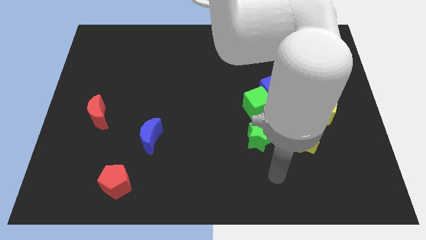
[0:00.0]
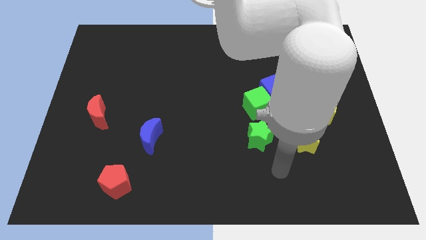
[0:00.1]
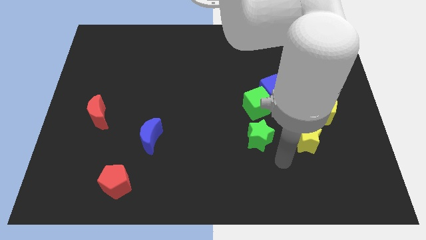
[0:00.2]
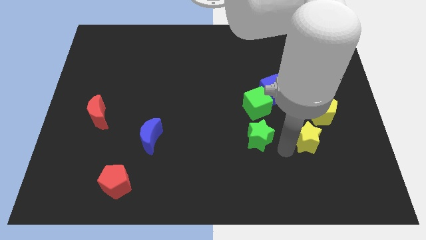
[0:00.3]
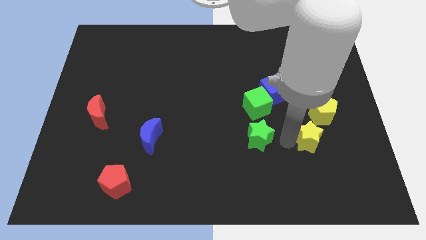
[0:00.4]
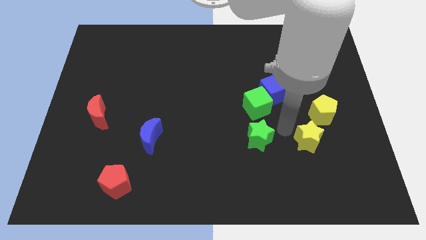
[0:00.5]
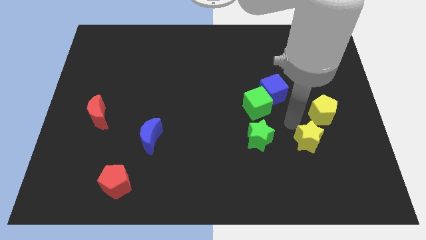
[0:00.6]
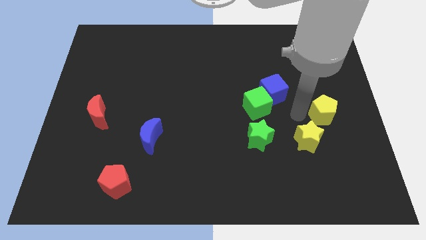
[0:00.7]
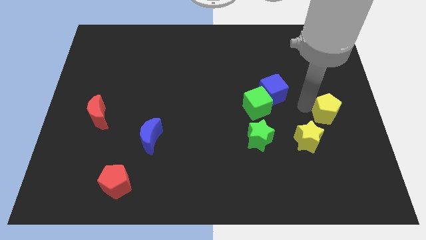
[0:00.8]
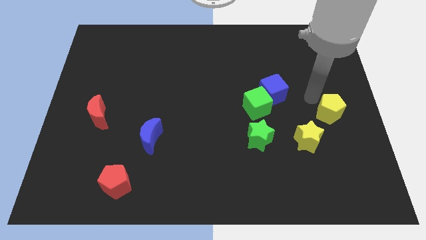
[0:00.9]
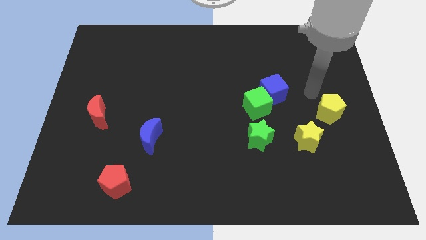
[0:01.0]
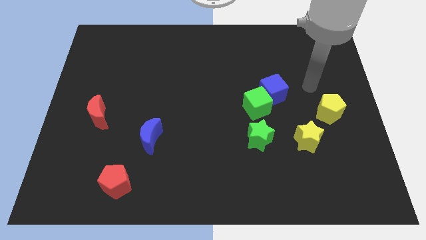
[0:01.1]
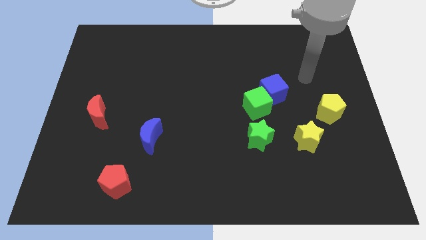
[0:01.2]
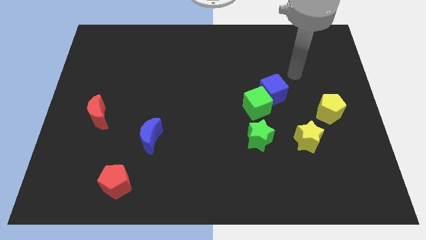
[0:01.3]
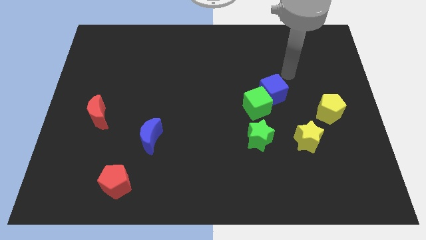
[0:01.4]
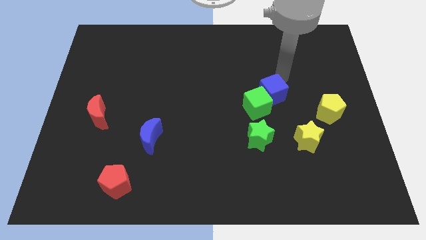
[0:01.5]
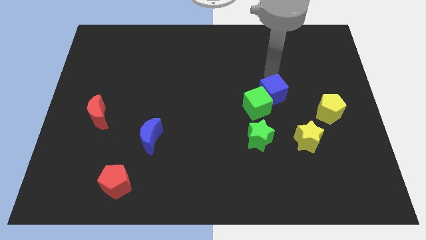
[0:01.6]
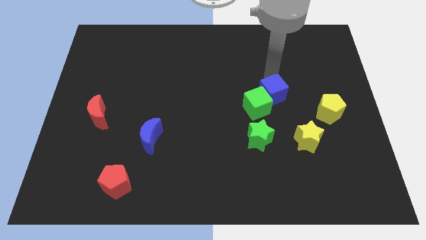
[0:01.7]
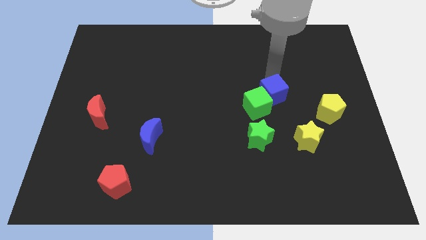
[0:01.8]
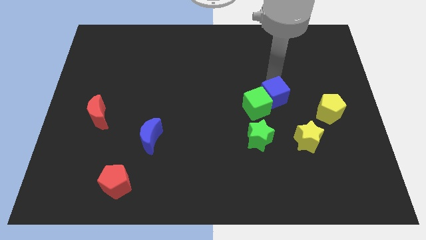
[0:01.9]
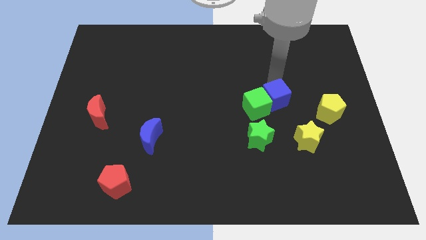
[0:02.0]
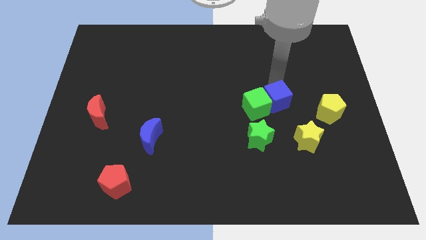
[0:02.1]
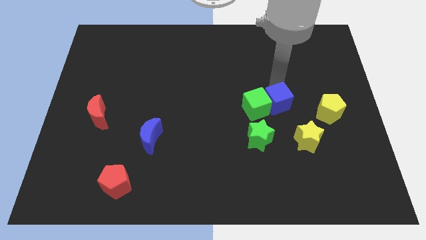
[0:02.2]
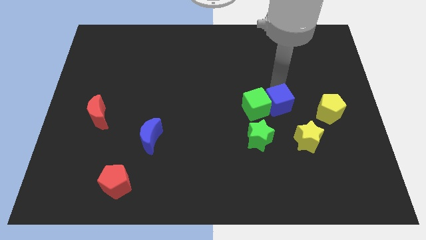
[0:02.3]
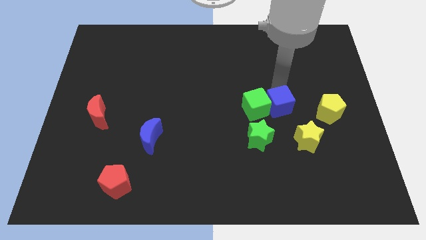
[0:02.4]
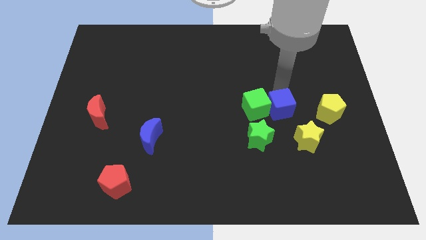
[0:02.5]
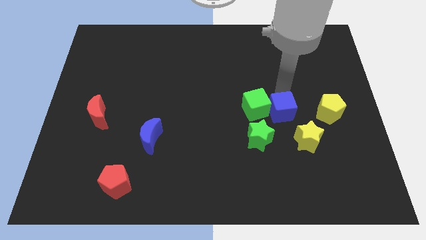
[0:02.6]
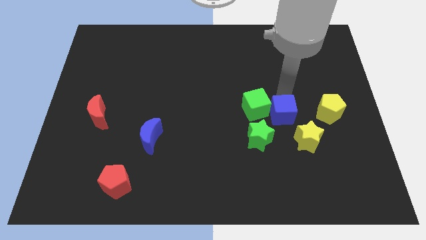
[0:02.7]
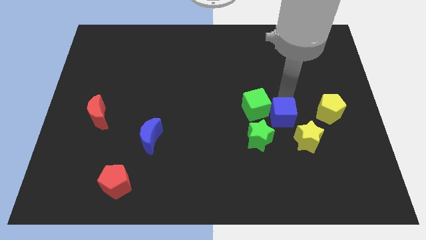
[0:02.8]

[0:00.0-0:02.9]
slightly slide the blue cube down

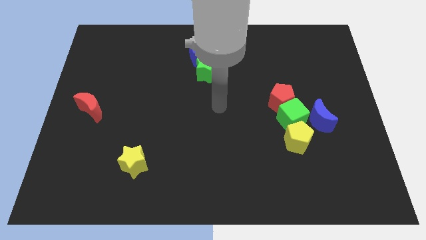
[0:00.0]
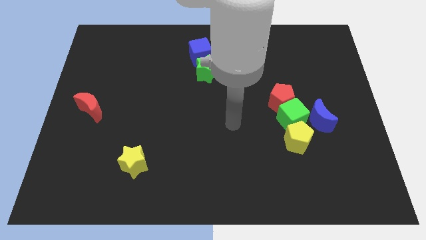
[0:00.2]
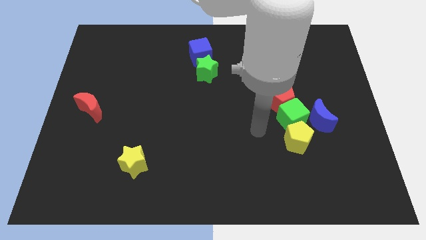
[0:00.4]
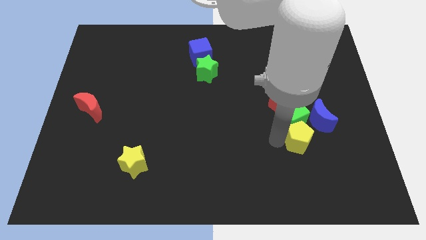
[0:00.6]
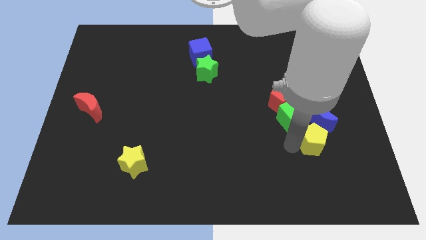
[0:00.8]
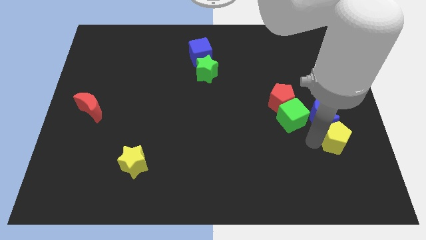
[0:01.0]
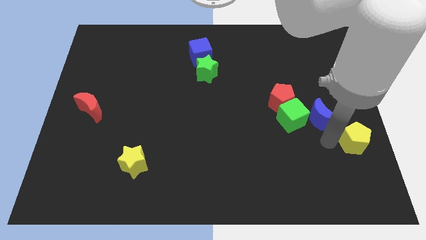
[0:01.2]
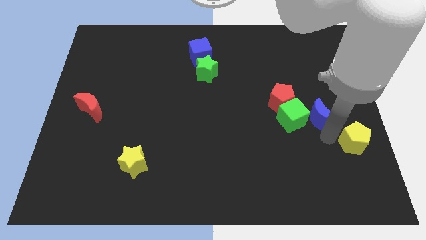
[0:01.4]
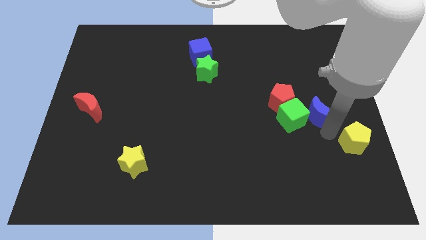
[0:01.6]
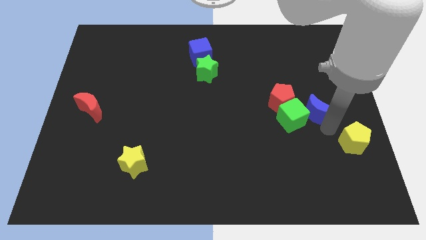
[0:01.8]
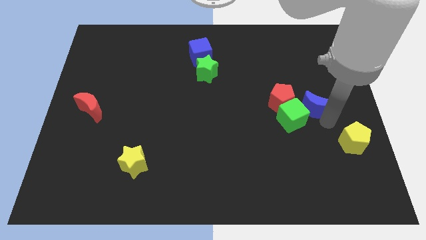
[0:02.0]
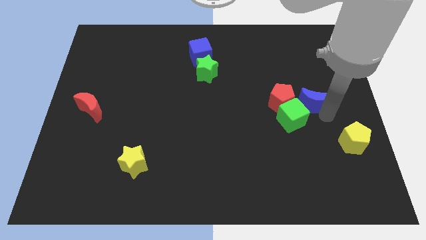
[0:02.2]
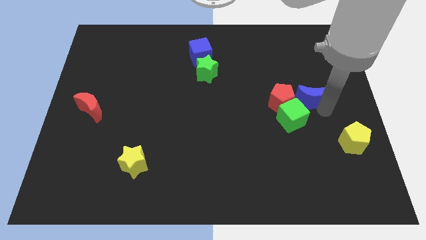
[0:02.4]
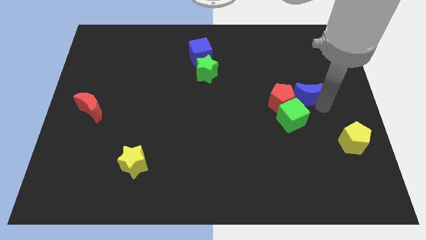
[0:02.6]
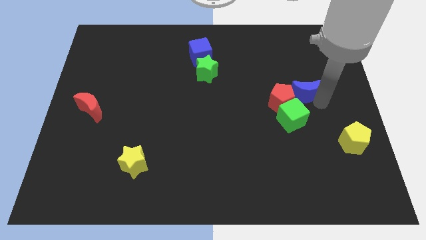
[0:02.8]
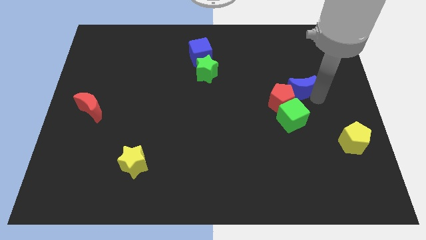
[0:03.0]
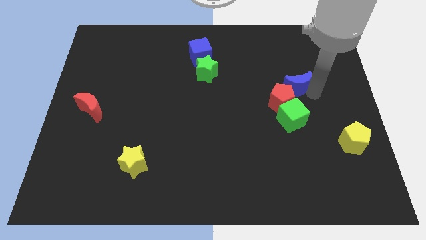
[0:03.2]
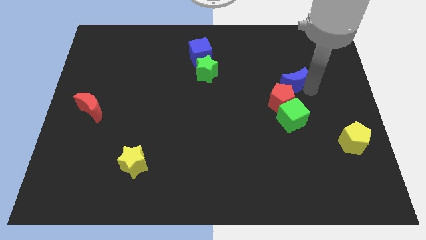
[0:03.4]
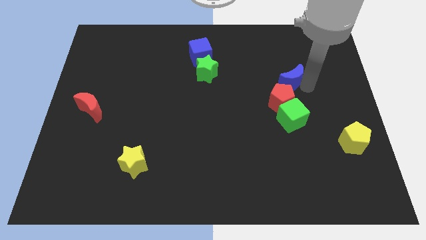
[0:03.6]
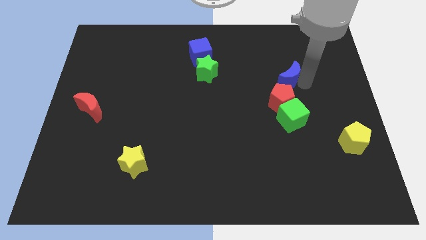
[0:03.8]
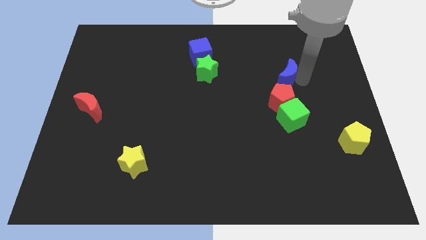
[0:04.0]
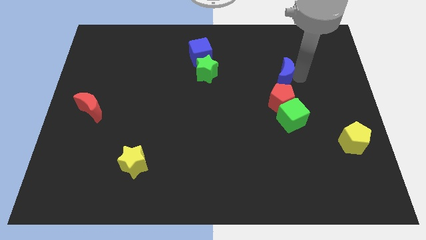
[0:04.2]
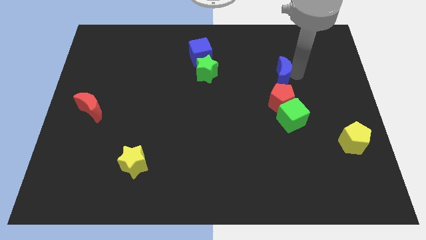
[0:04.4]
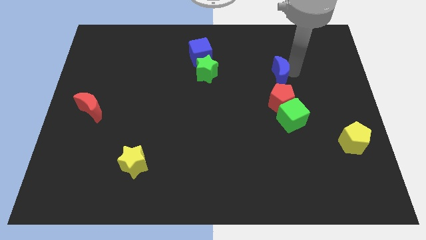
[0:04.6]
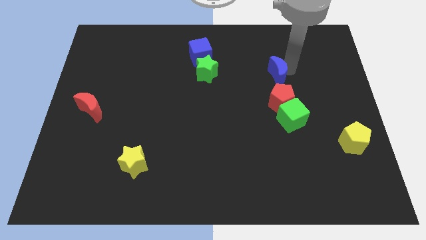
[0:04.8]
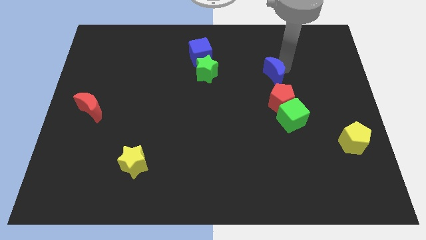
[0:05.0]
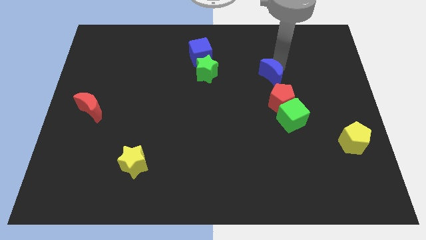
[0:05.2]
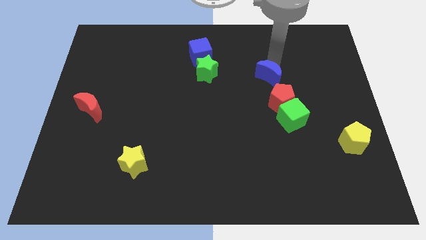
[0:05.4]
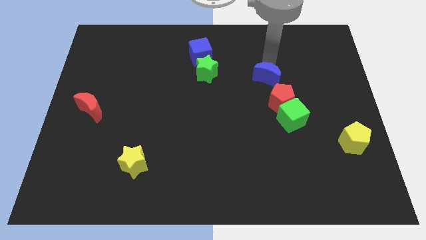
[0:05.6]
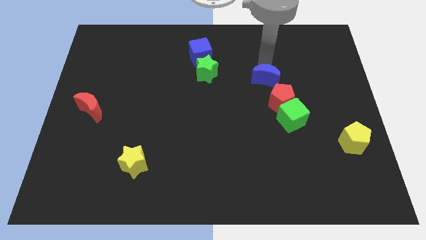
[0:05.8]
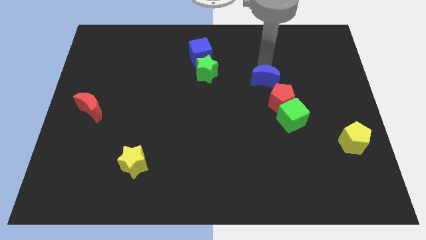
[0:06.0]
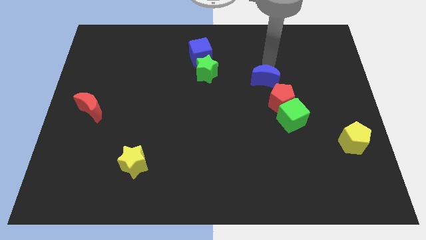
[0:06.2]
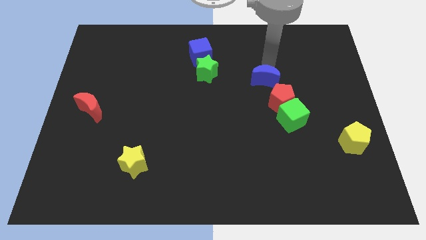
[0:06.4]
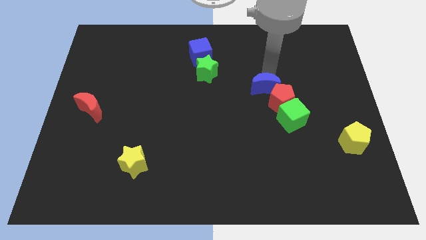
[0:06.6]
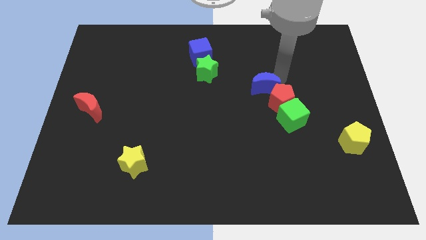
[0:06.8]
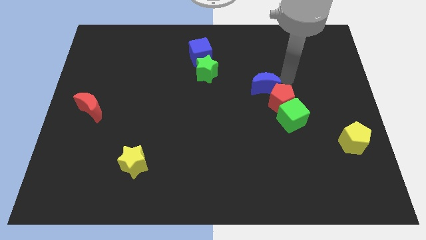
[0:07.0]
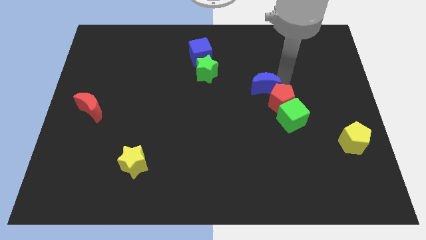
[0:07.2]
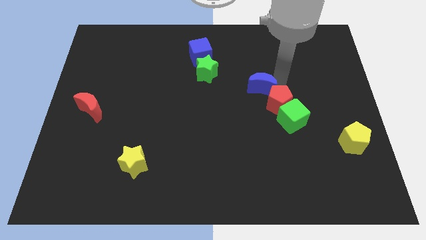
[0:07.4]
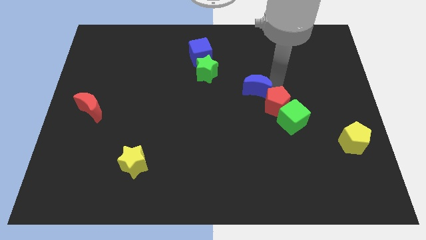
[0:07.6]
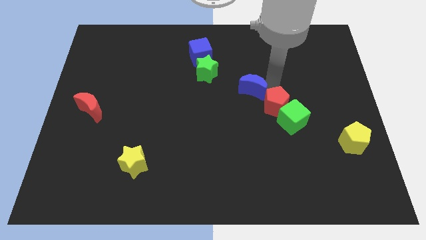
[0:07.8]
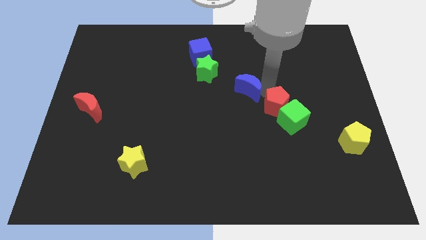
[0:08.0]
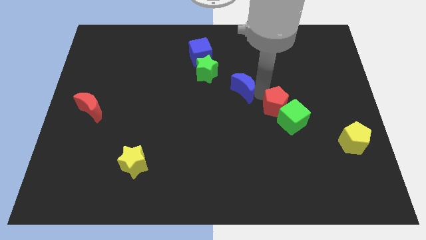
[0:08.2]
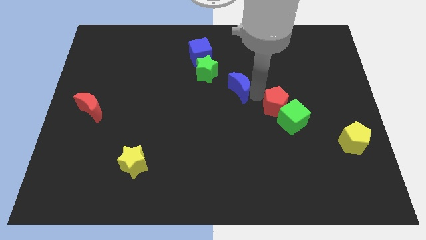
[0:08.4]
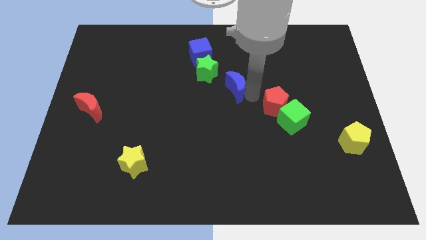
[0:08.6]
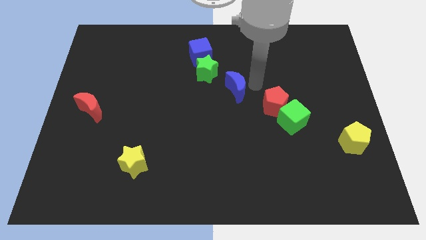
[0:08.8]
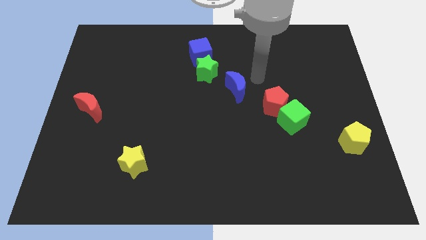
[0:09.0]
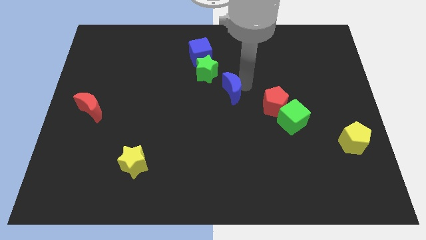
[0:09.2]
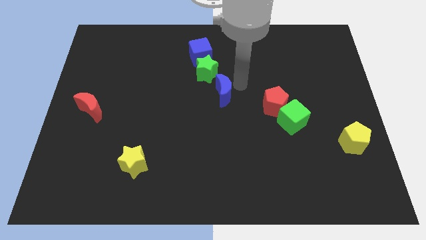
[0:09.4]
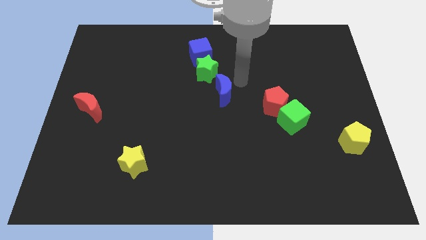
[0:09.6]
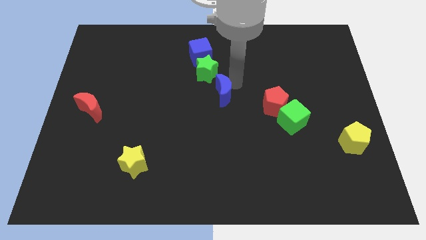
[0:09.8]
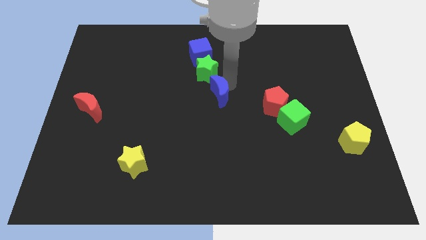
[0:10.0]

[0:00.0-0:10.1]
move the blue moon left

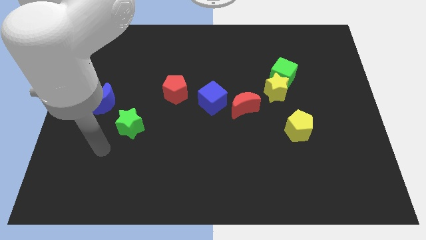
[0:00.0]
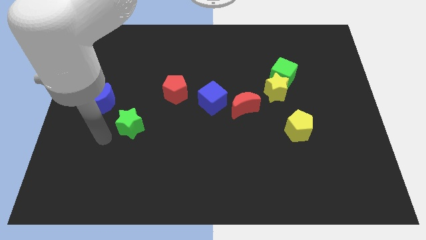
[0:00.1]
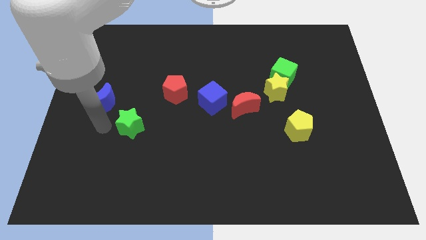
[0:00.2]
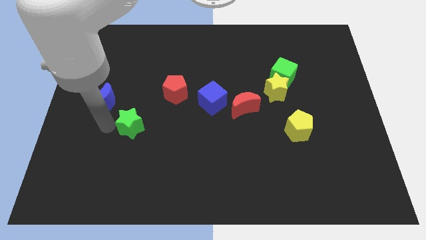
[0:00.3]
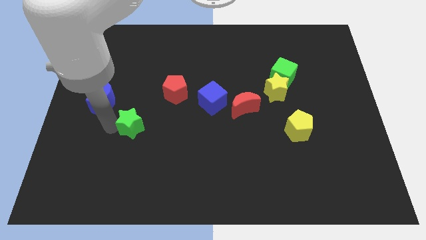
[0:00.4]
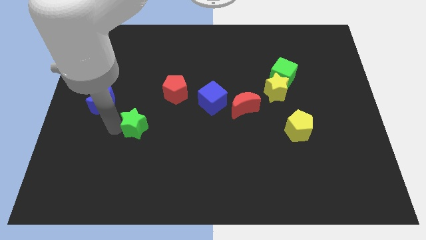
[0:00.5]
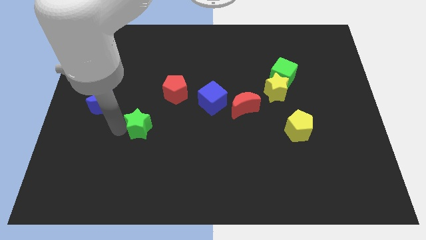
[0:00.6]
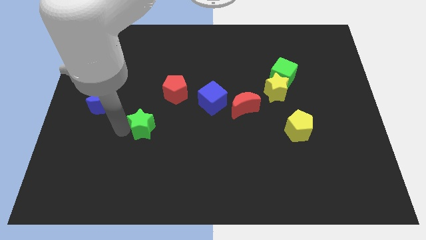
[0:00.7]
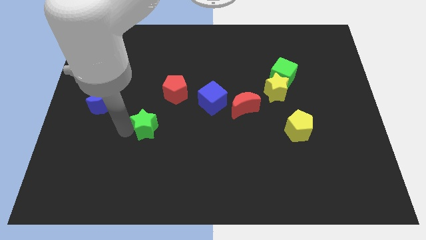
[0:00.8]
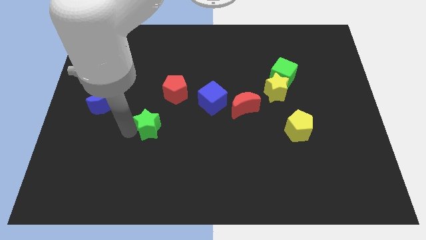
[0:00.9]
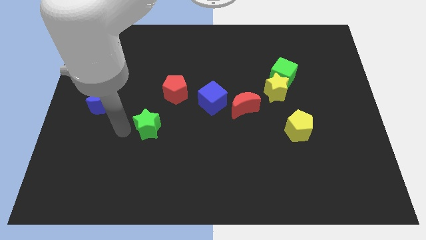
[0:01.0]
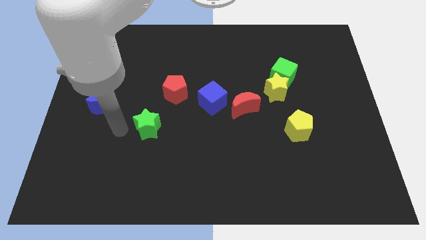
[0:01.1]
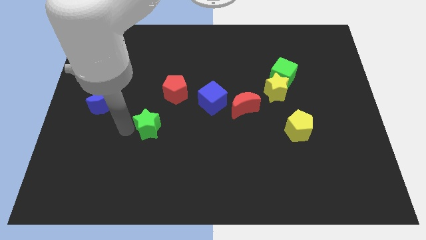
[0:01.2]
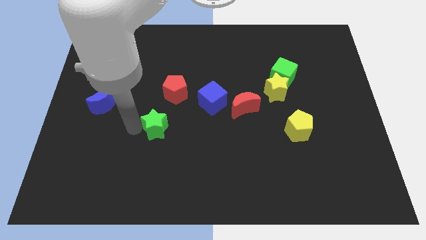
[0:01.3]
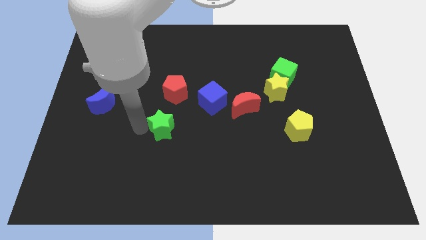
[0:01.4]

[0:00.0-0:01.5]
slide the green star to the right somewhat
